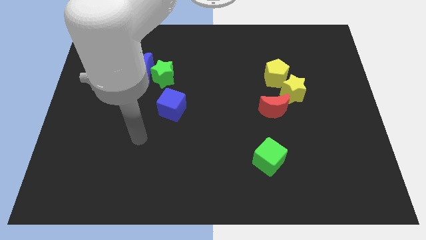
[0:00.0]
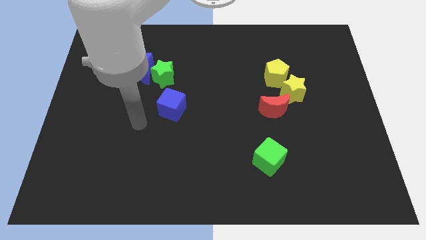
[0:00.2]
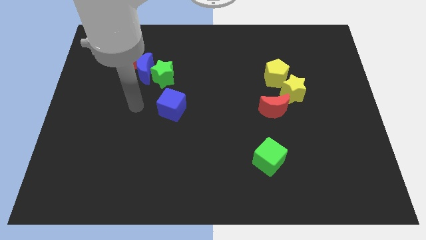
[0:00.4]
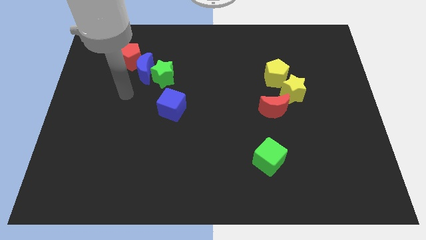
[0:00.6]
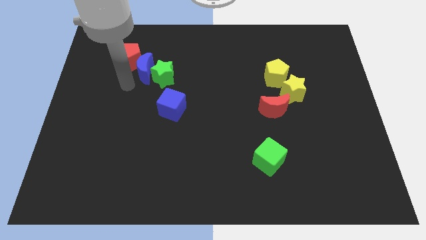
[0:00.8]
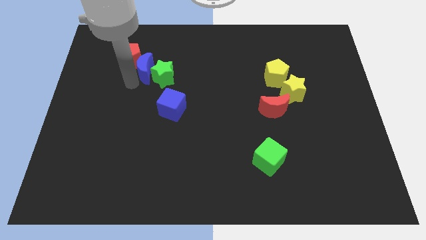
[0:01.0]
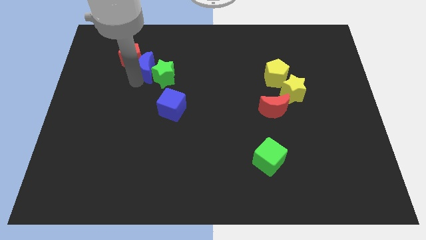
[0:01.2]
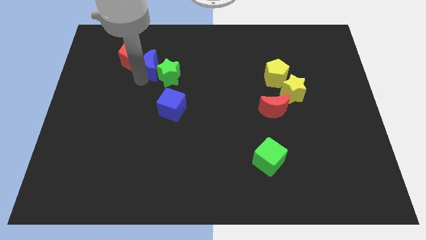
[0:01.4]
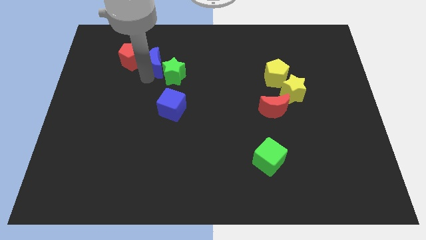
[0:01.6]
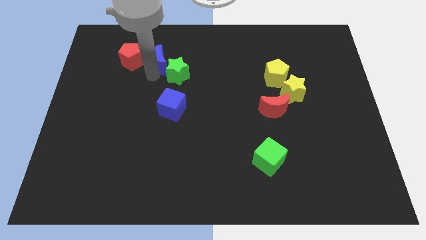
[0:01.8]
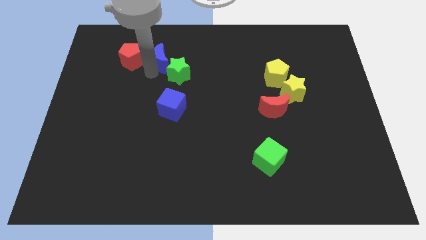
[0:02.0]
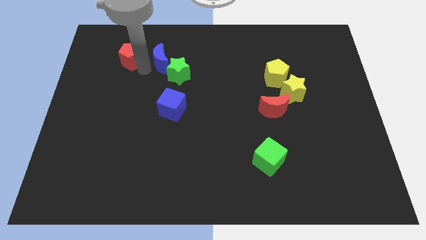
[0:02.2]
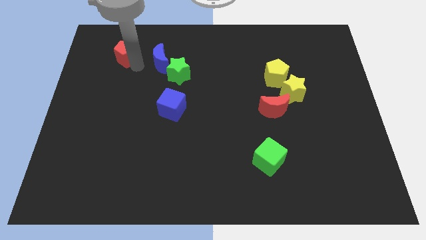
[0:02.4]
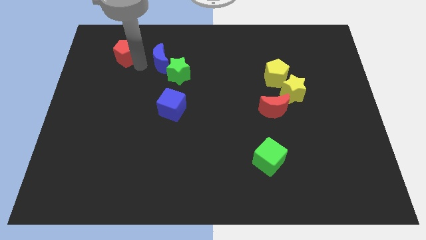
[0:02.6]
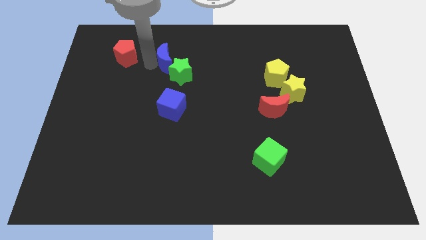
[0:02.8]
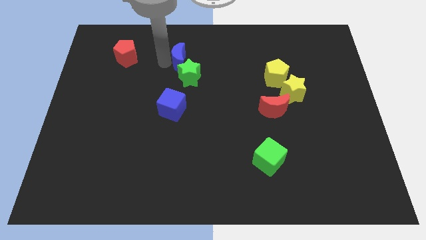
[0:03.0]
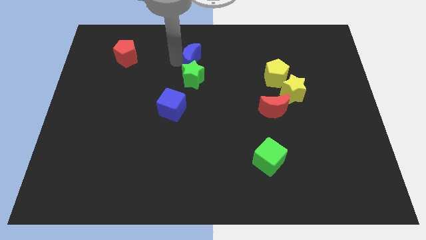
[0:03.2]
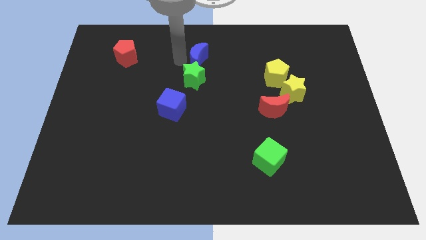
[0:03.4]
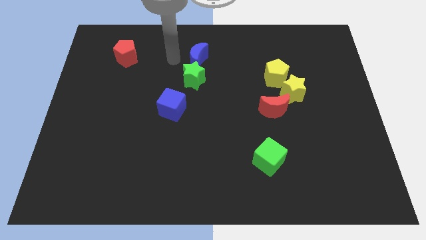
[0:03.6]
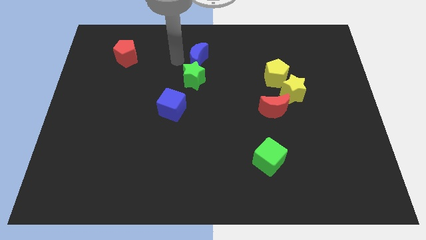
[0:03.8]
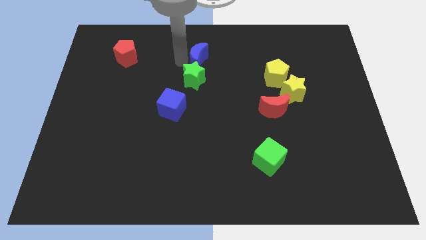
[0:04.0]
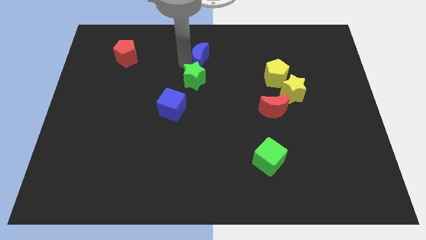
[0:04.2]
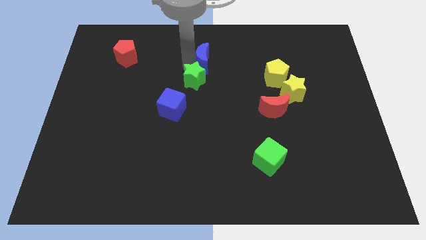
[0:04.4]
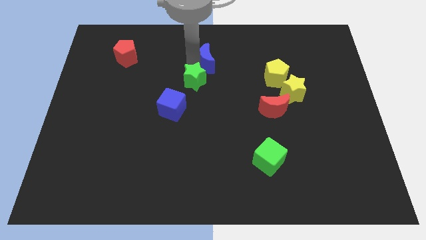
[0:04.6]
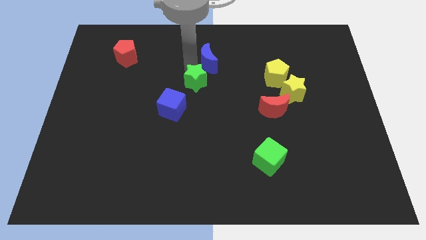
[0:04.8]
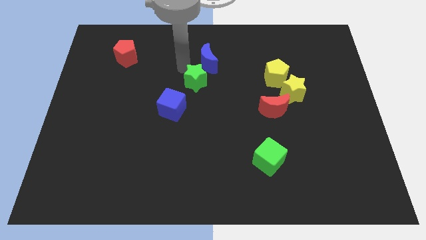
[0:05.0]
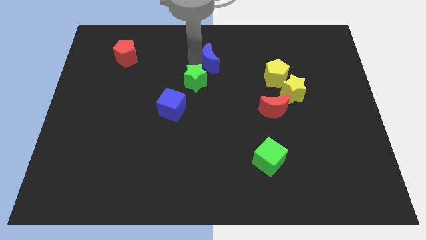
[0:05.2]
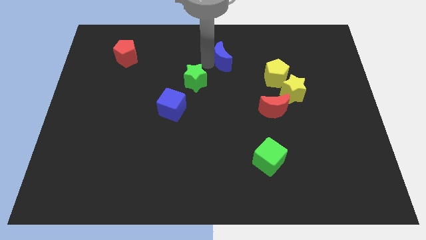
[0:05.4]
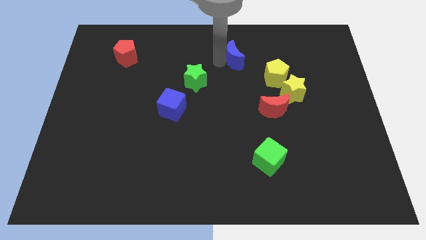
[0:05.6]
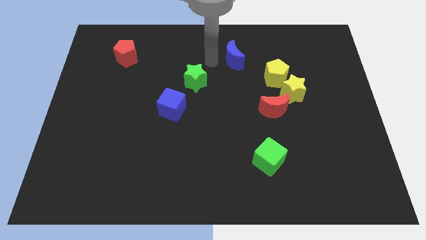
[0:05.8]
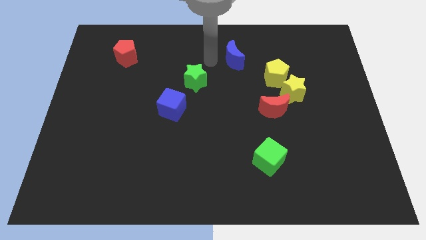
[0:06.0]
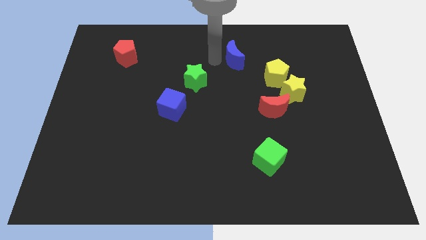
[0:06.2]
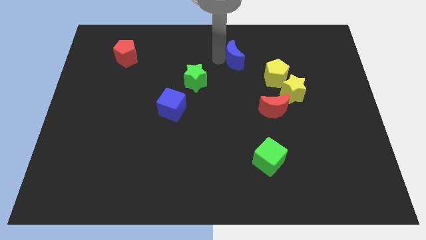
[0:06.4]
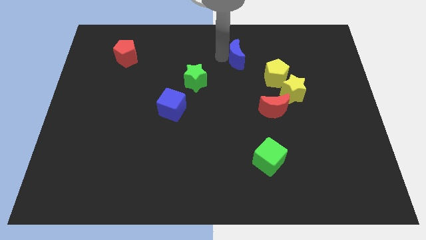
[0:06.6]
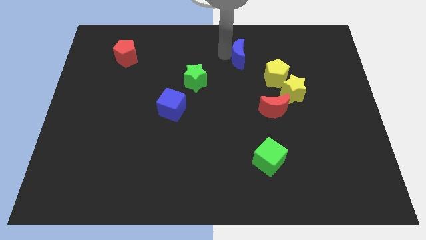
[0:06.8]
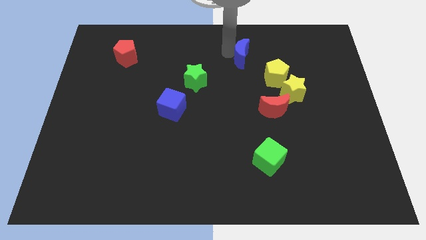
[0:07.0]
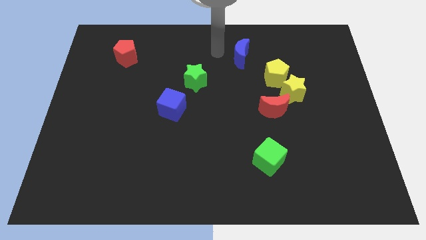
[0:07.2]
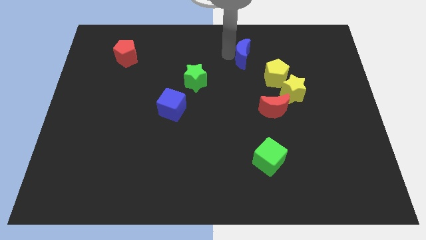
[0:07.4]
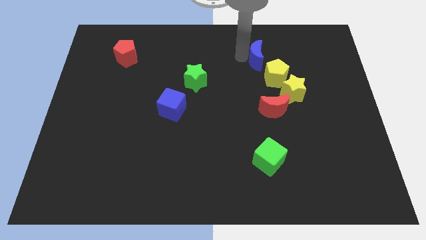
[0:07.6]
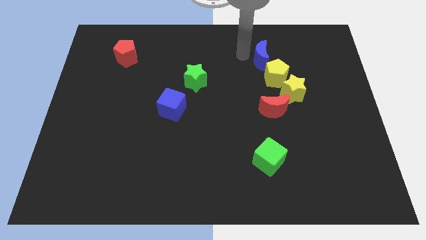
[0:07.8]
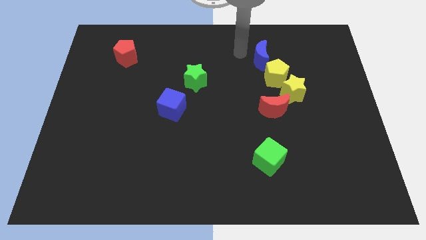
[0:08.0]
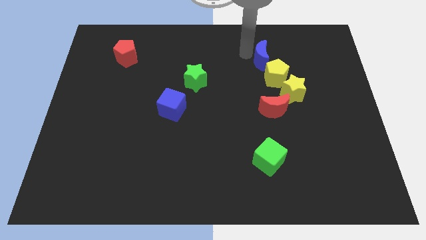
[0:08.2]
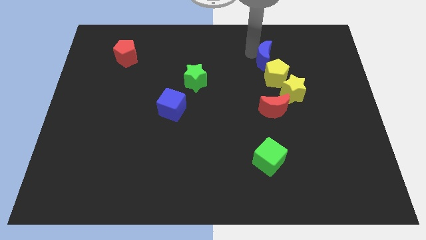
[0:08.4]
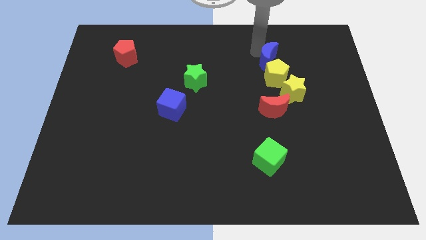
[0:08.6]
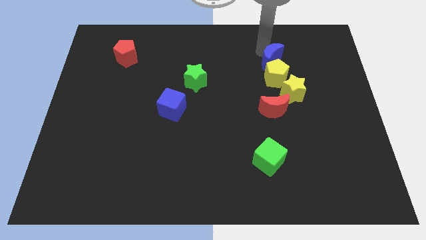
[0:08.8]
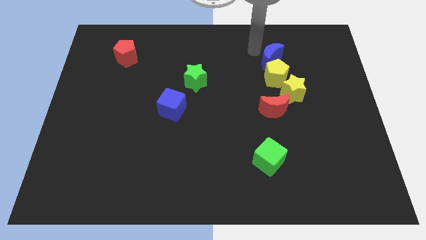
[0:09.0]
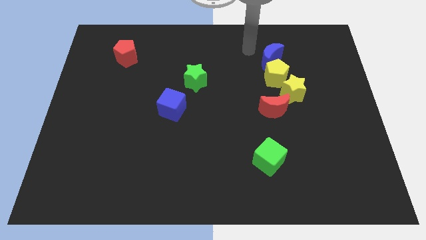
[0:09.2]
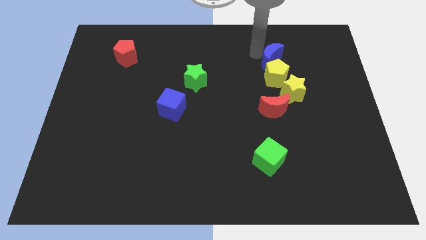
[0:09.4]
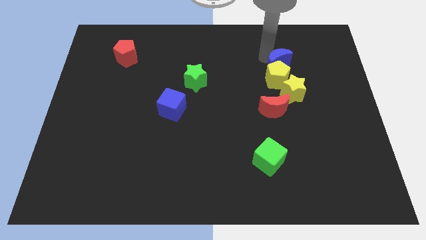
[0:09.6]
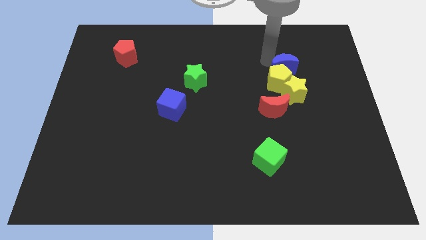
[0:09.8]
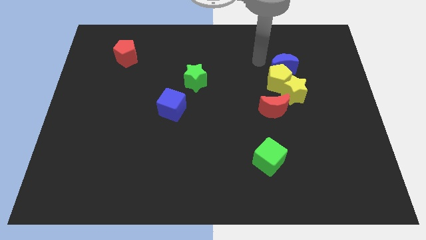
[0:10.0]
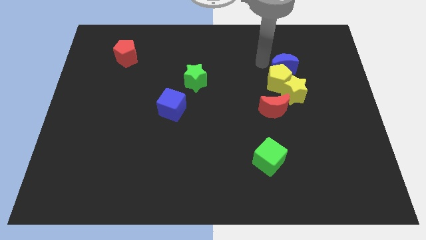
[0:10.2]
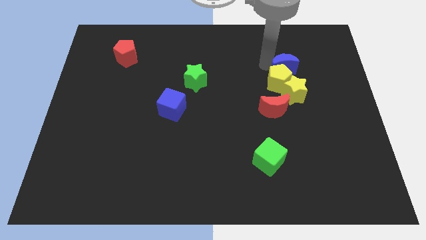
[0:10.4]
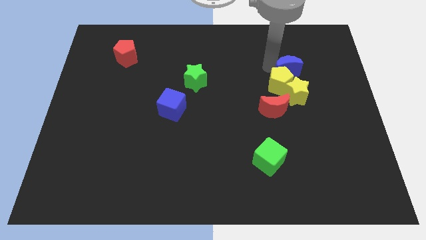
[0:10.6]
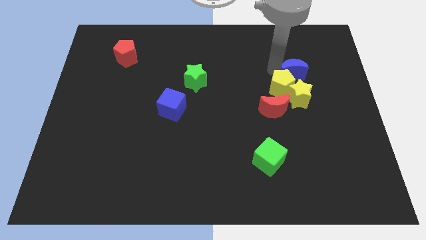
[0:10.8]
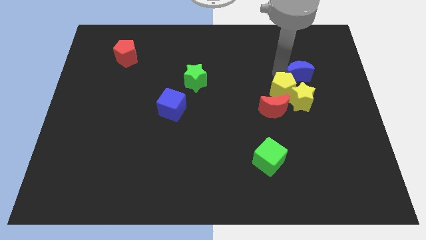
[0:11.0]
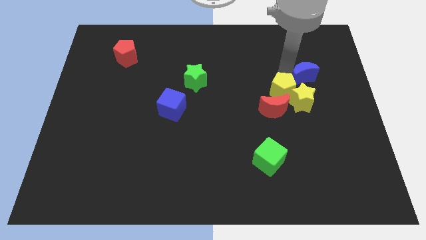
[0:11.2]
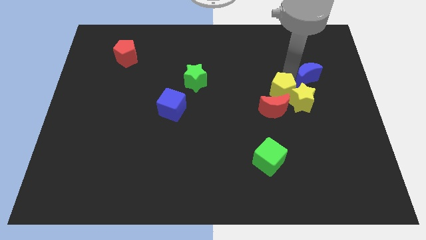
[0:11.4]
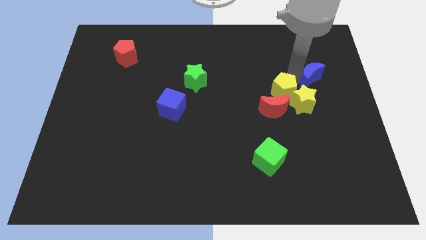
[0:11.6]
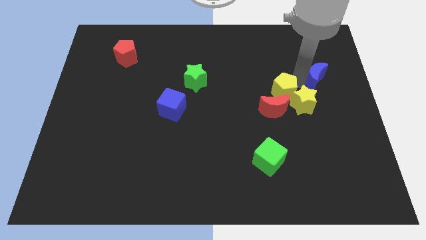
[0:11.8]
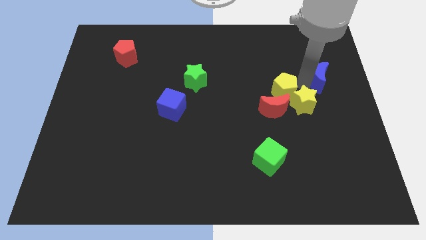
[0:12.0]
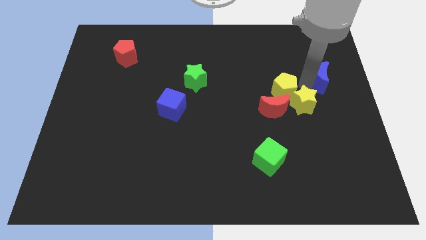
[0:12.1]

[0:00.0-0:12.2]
slide the blue moon to the right side
